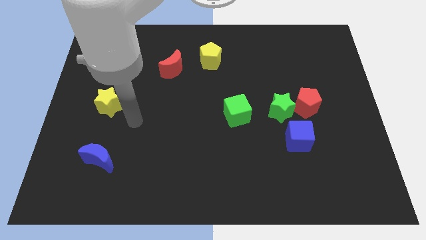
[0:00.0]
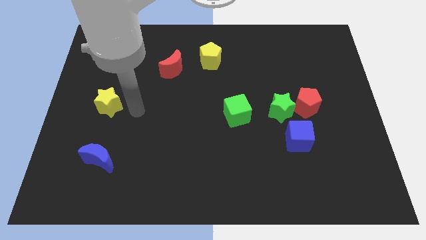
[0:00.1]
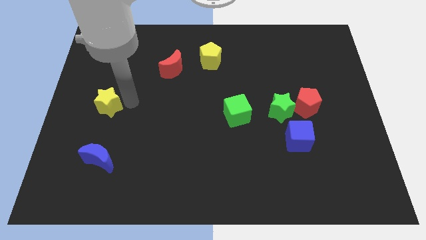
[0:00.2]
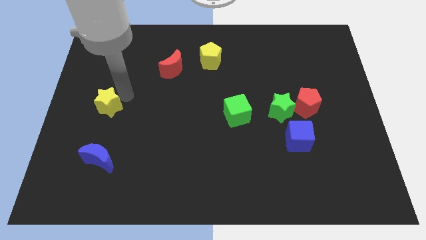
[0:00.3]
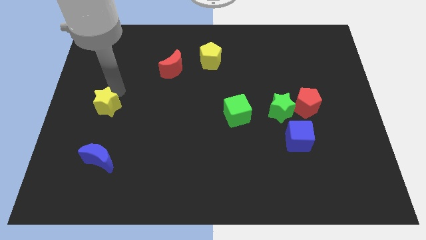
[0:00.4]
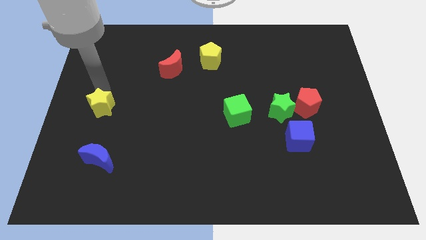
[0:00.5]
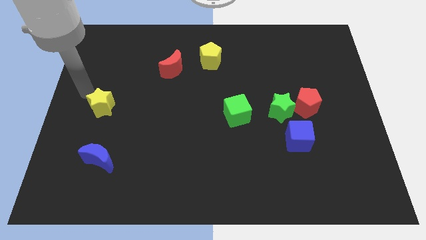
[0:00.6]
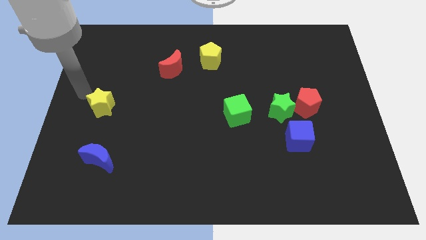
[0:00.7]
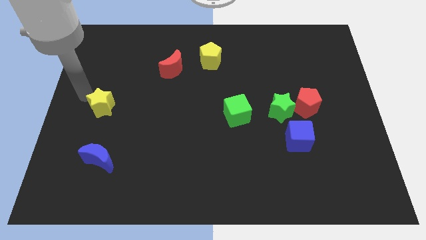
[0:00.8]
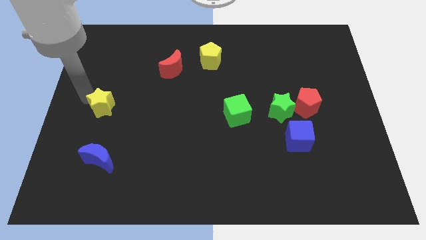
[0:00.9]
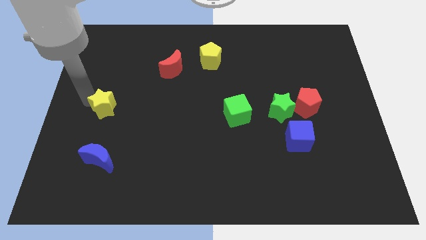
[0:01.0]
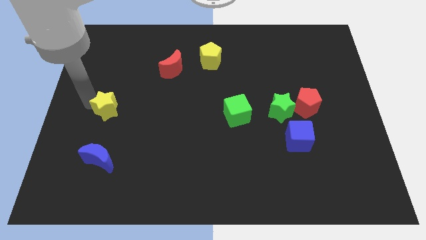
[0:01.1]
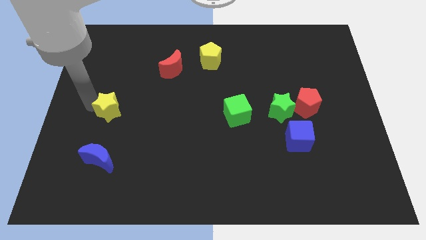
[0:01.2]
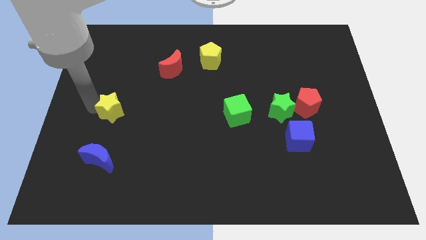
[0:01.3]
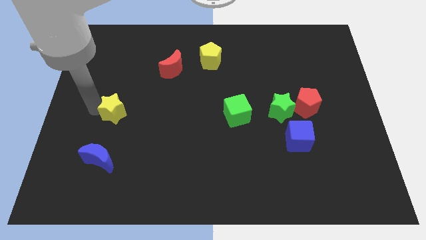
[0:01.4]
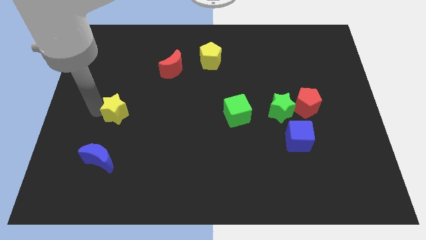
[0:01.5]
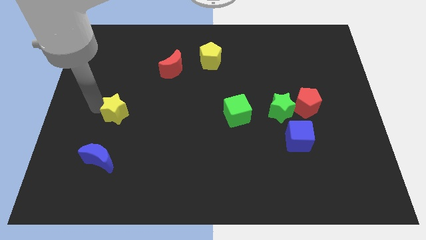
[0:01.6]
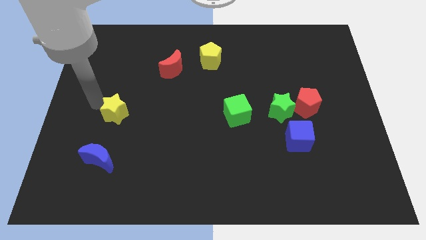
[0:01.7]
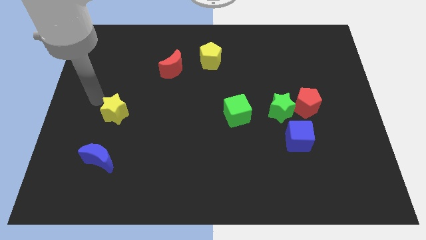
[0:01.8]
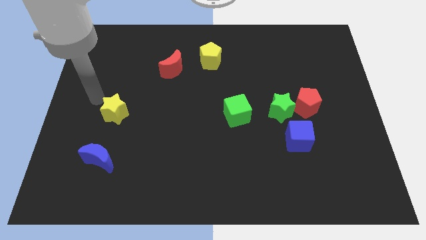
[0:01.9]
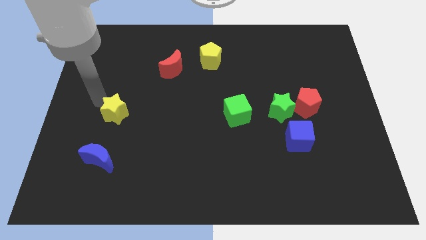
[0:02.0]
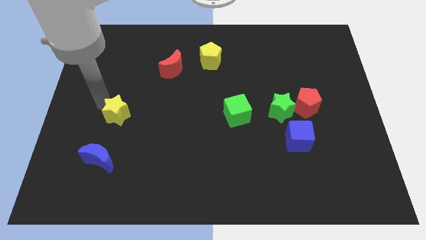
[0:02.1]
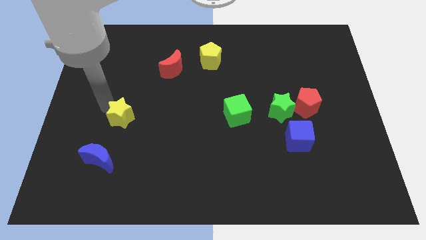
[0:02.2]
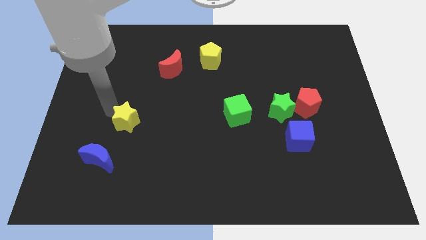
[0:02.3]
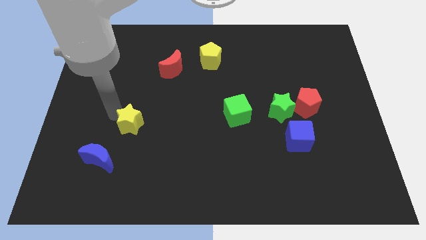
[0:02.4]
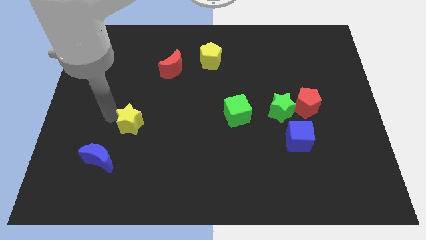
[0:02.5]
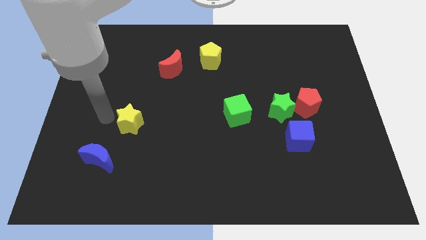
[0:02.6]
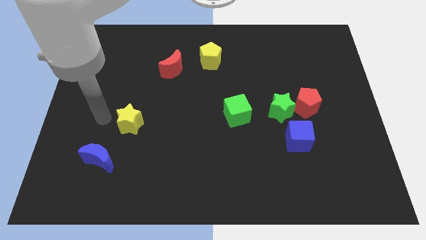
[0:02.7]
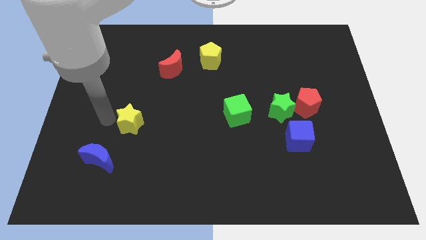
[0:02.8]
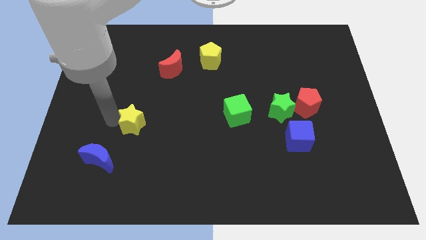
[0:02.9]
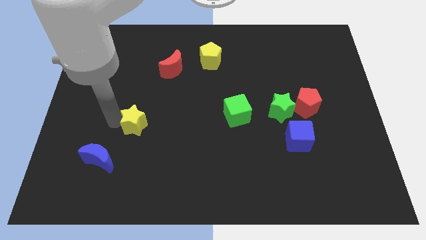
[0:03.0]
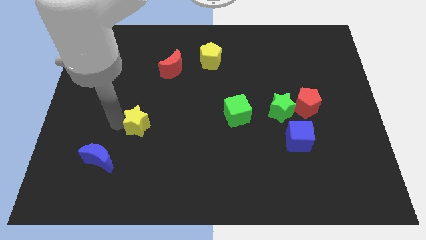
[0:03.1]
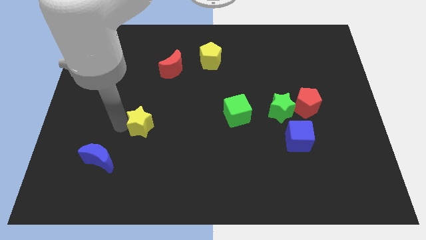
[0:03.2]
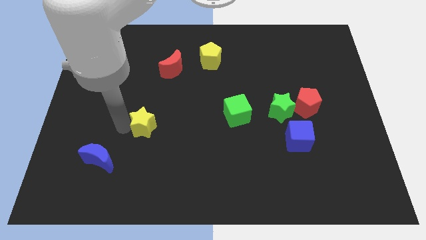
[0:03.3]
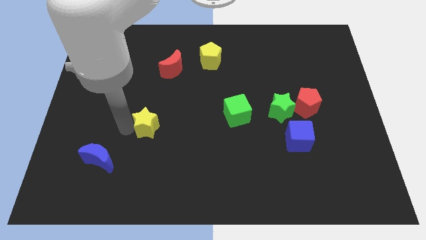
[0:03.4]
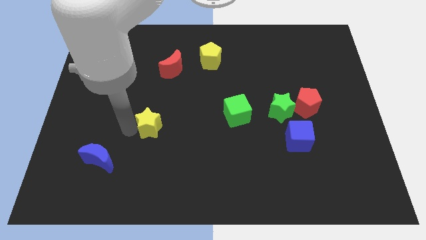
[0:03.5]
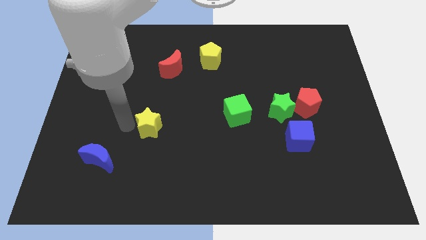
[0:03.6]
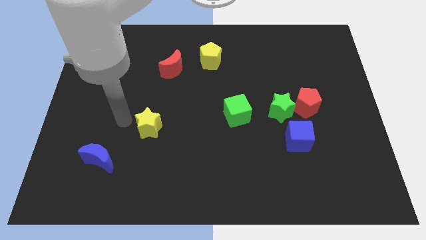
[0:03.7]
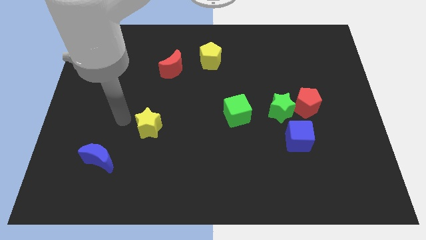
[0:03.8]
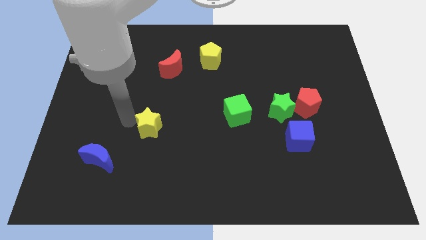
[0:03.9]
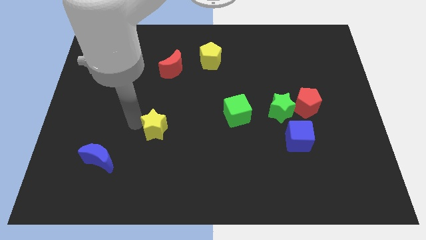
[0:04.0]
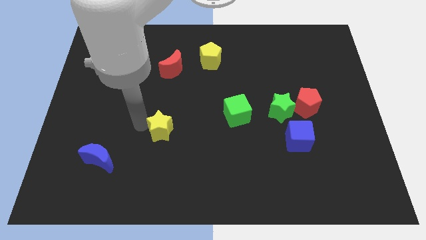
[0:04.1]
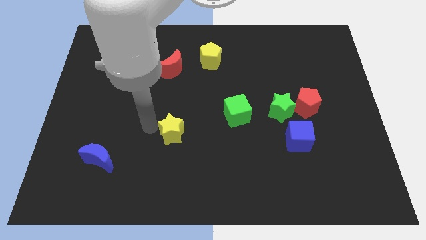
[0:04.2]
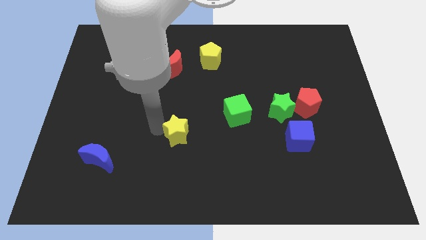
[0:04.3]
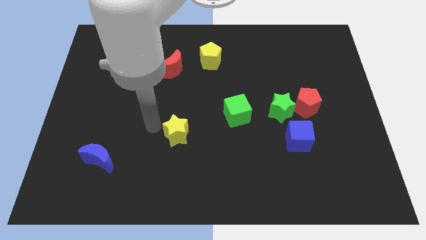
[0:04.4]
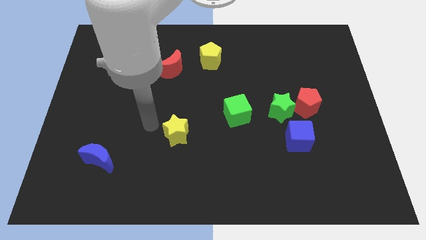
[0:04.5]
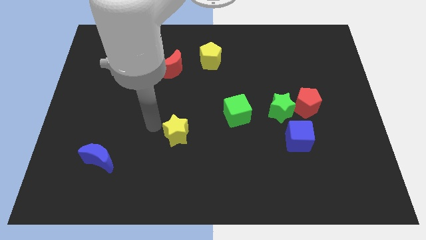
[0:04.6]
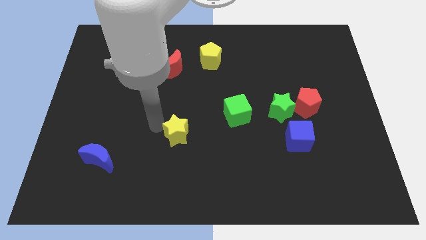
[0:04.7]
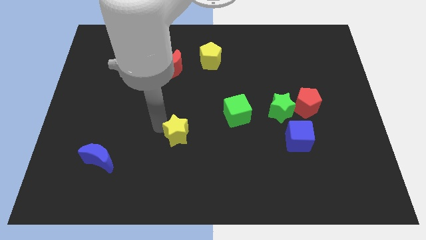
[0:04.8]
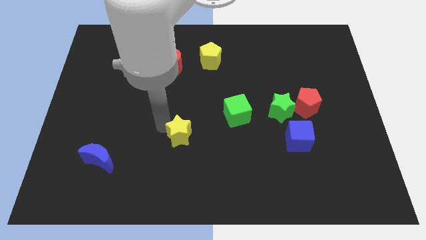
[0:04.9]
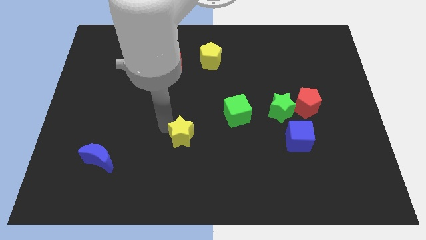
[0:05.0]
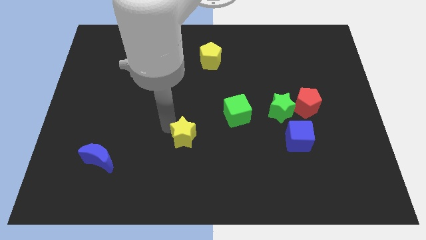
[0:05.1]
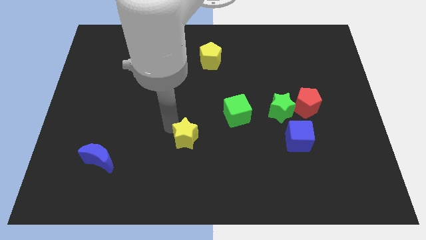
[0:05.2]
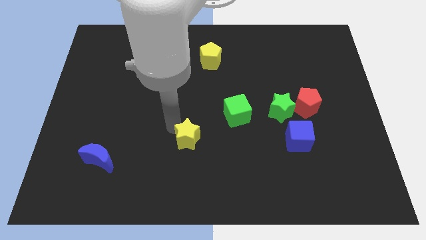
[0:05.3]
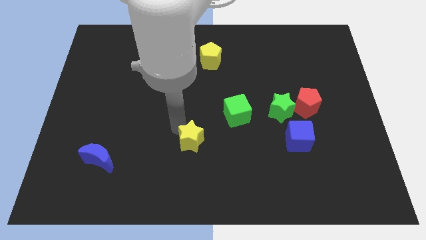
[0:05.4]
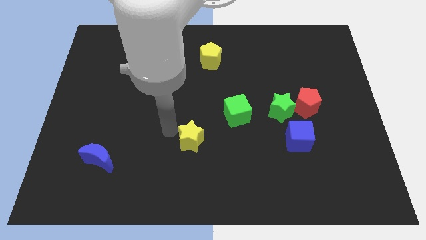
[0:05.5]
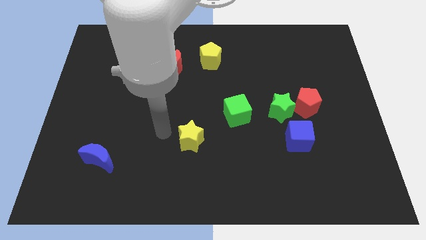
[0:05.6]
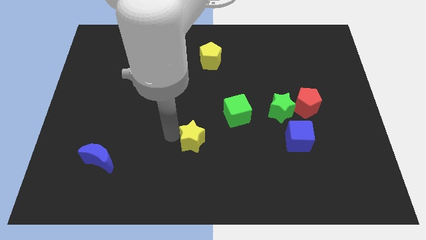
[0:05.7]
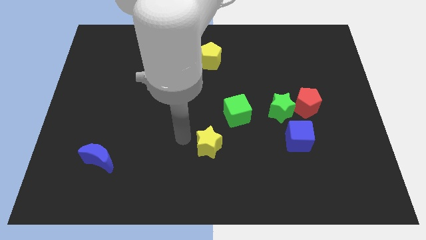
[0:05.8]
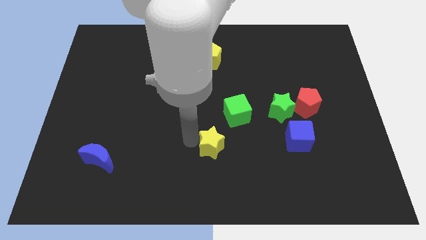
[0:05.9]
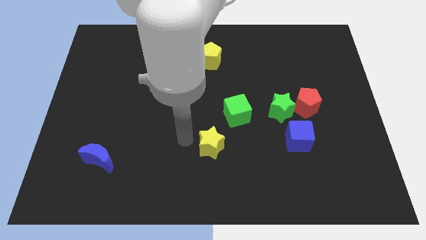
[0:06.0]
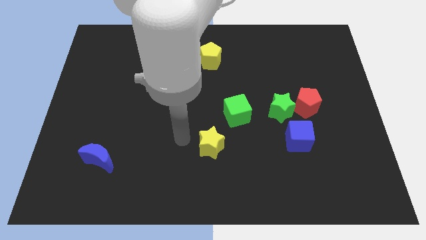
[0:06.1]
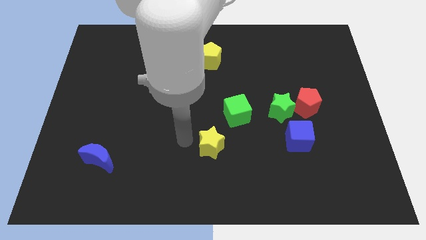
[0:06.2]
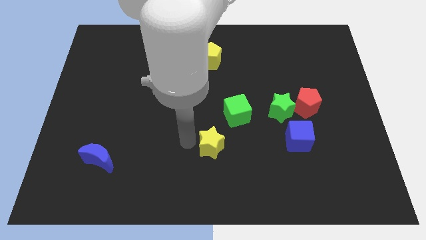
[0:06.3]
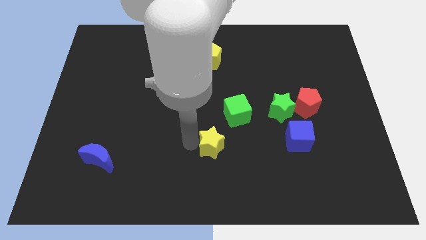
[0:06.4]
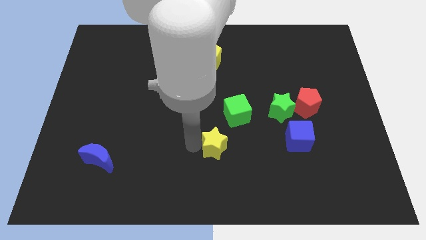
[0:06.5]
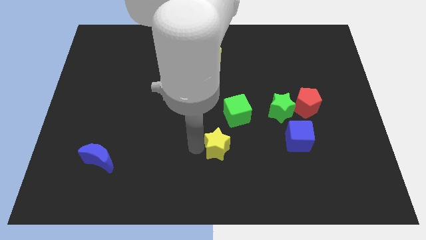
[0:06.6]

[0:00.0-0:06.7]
move the yellow star to the bottom of the green cube
